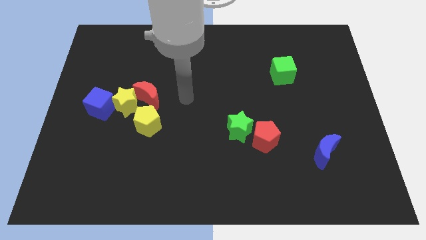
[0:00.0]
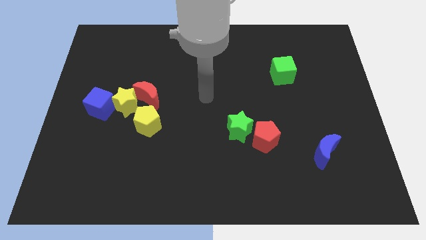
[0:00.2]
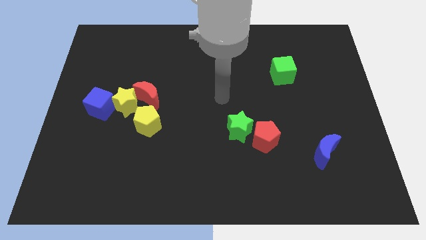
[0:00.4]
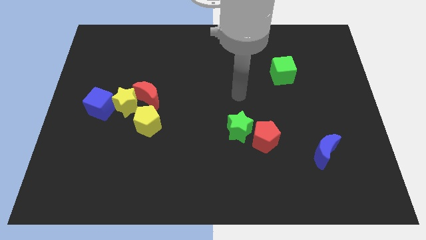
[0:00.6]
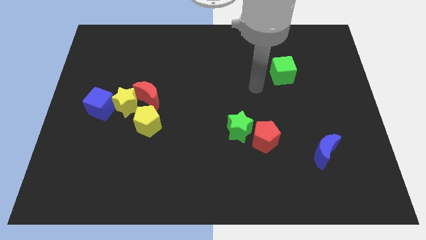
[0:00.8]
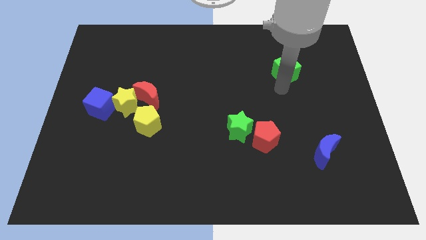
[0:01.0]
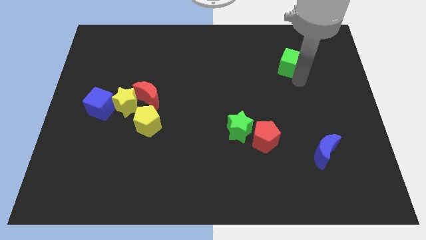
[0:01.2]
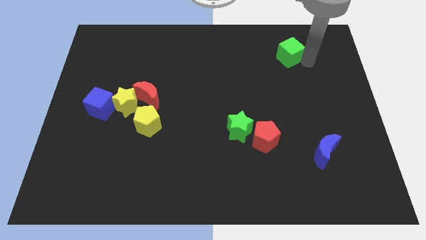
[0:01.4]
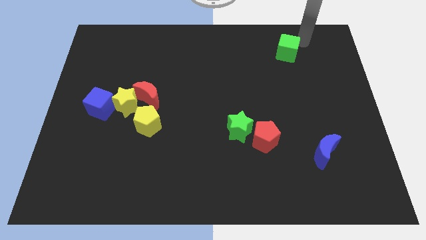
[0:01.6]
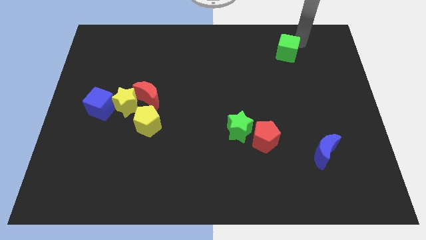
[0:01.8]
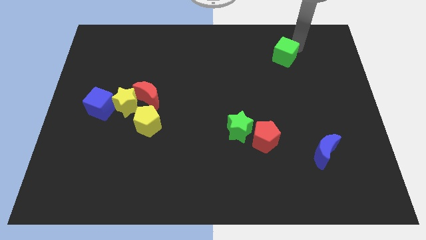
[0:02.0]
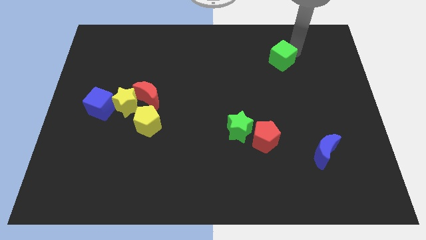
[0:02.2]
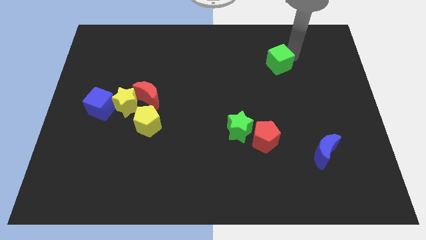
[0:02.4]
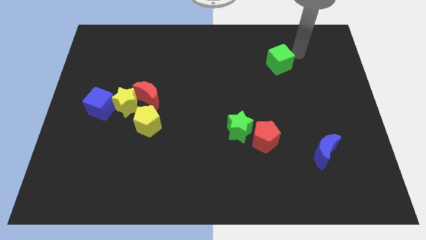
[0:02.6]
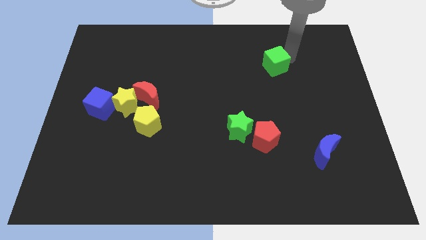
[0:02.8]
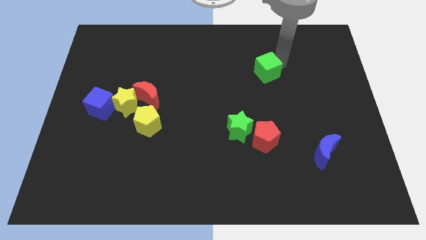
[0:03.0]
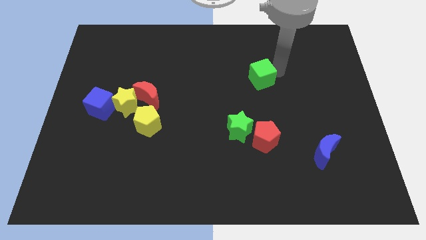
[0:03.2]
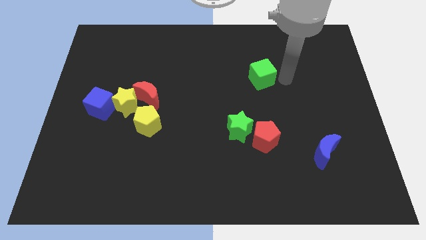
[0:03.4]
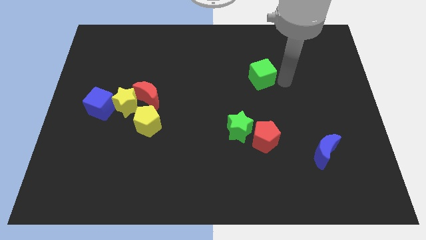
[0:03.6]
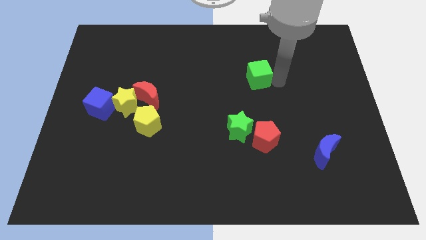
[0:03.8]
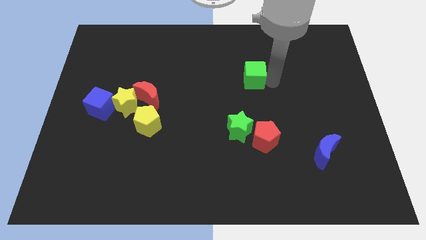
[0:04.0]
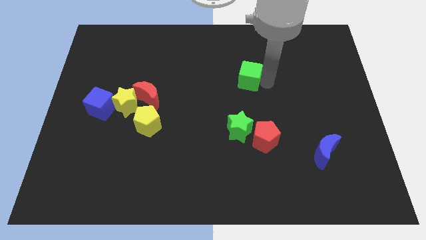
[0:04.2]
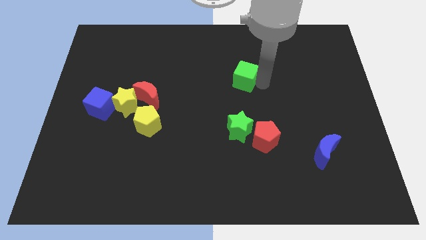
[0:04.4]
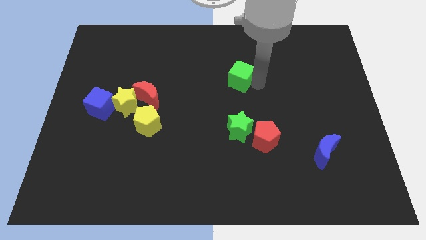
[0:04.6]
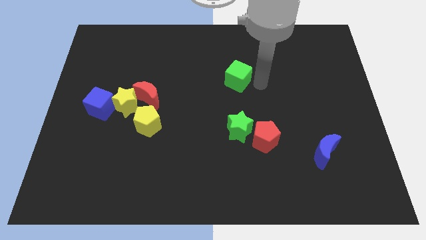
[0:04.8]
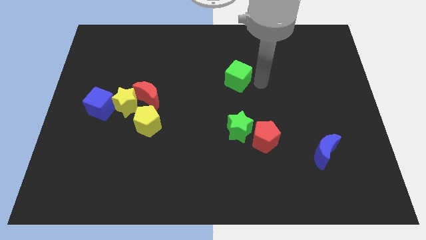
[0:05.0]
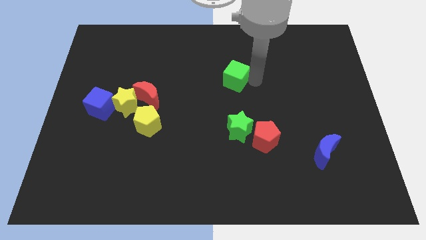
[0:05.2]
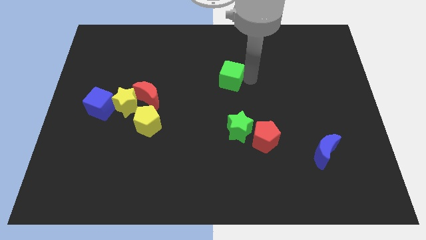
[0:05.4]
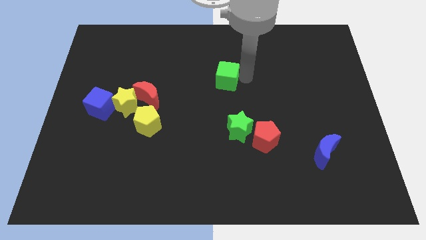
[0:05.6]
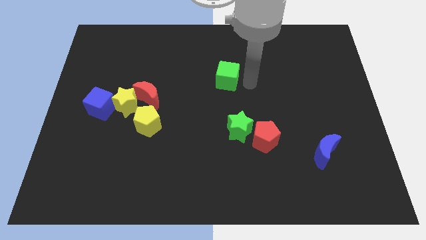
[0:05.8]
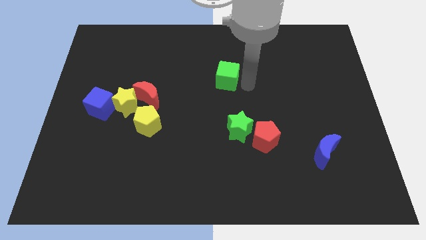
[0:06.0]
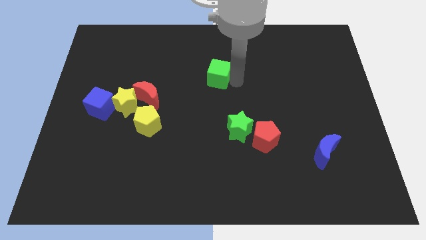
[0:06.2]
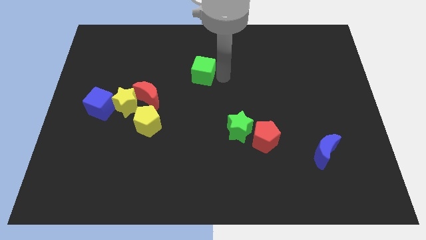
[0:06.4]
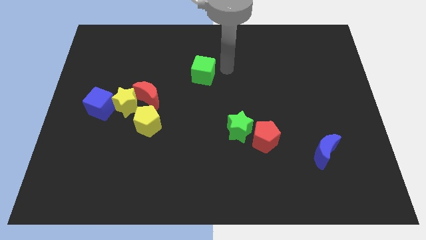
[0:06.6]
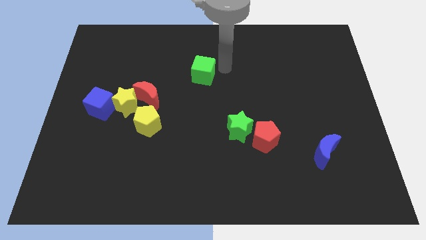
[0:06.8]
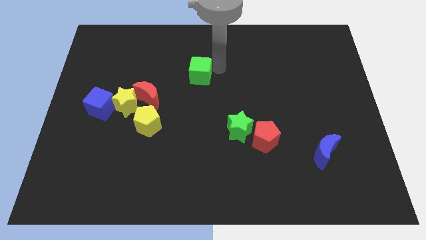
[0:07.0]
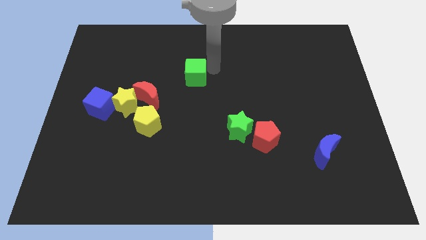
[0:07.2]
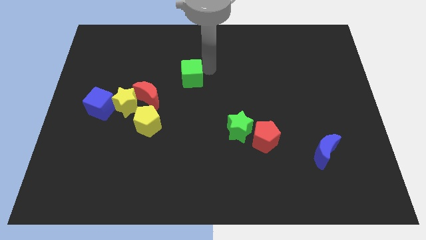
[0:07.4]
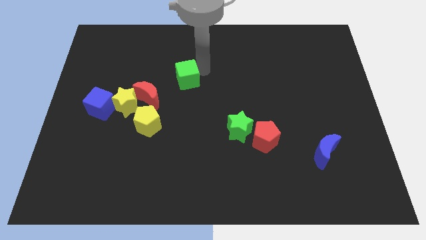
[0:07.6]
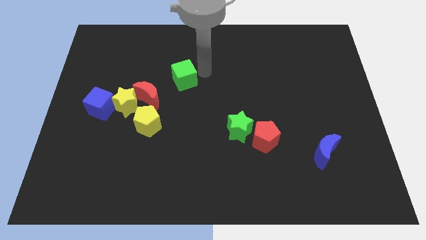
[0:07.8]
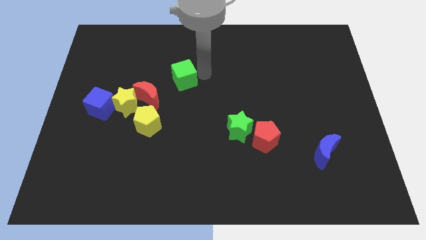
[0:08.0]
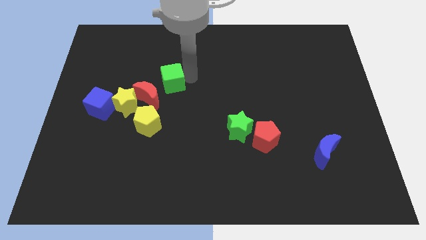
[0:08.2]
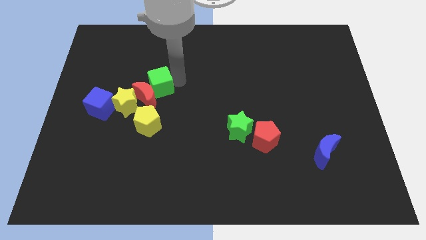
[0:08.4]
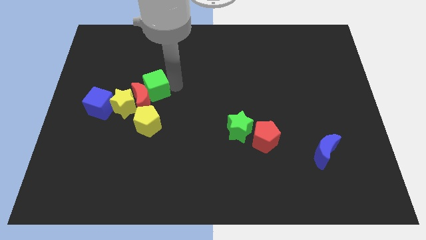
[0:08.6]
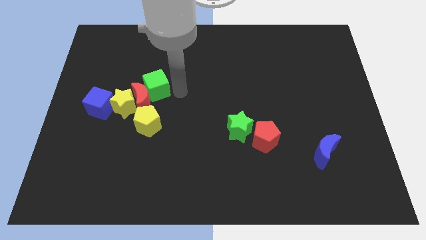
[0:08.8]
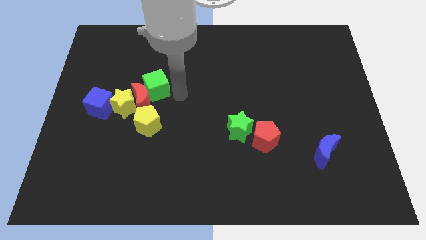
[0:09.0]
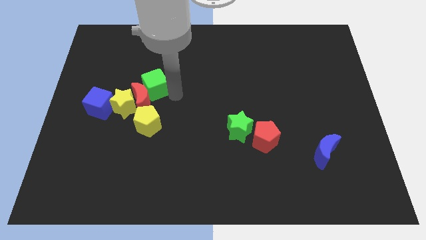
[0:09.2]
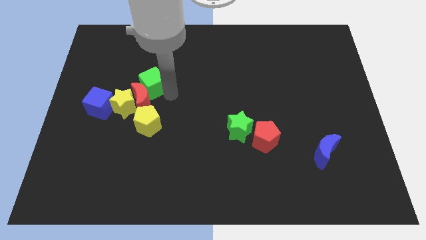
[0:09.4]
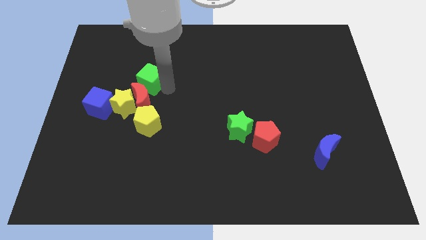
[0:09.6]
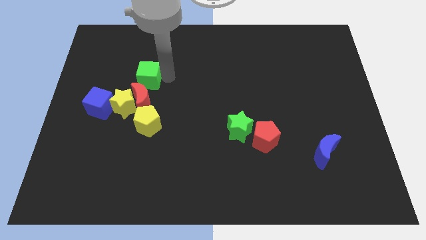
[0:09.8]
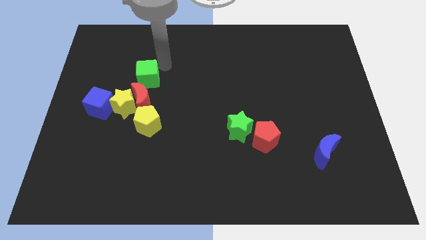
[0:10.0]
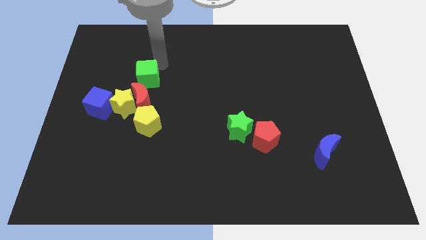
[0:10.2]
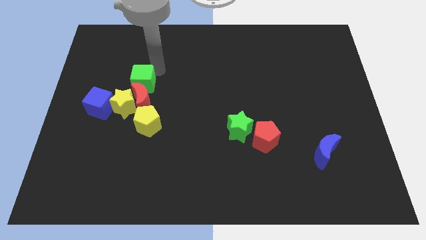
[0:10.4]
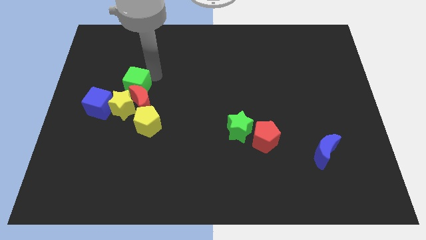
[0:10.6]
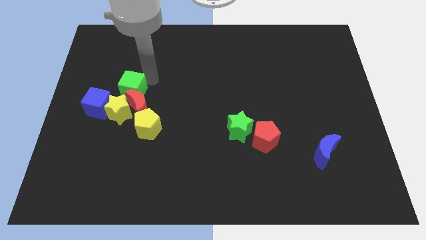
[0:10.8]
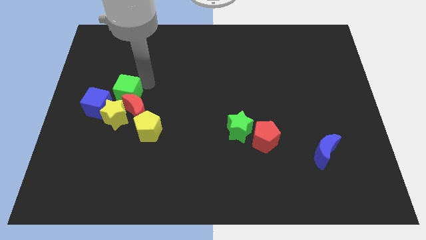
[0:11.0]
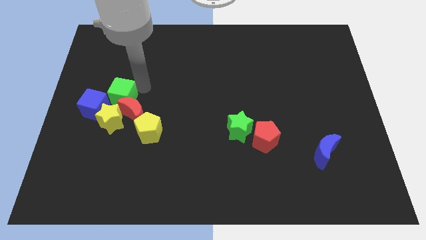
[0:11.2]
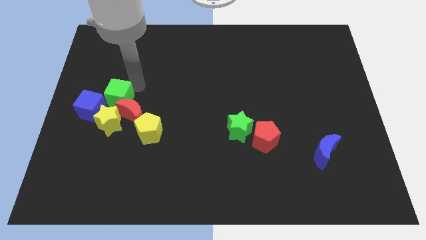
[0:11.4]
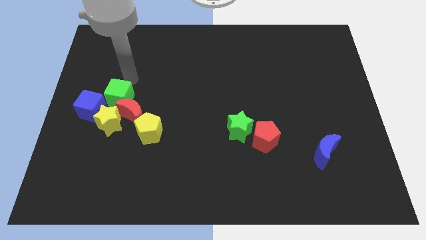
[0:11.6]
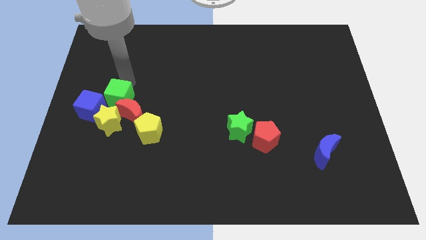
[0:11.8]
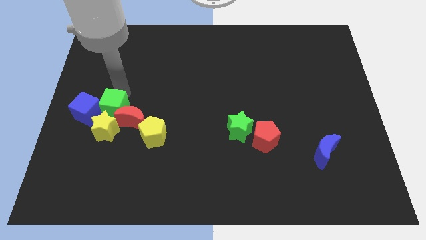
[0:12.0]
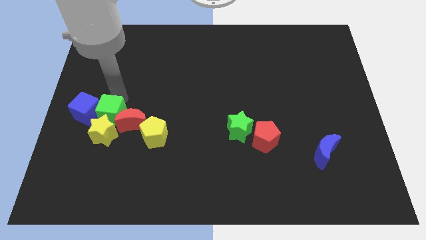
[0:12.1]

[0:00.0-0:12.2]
push the green cube next to the yellow star

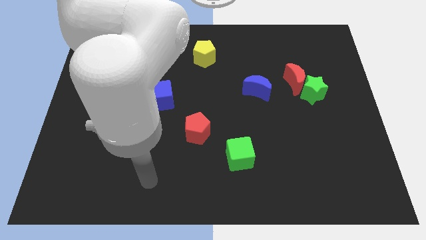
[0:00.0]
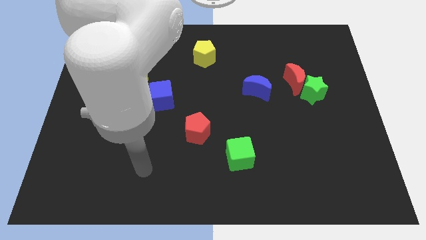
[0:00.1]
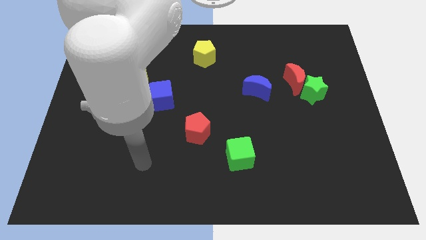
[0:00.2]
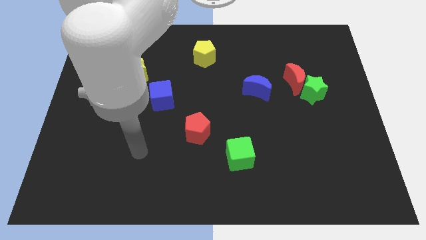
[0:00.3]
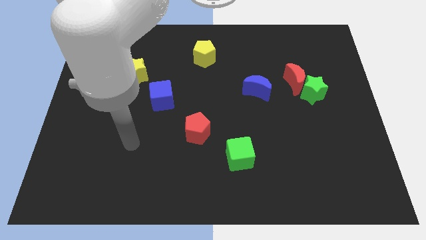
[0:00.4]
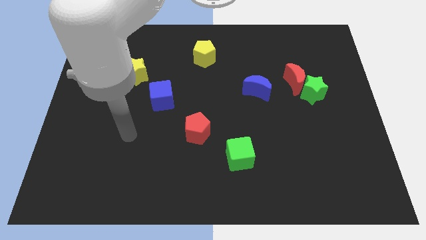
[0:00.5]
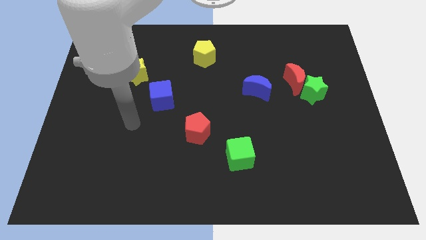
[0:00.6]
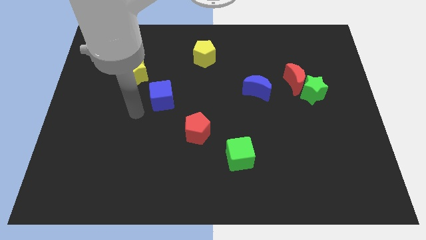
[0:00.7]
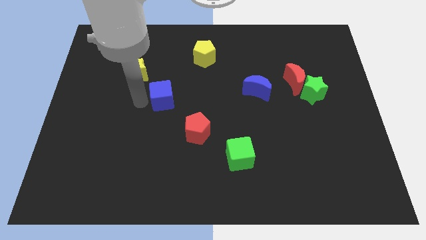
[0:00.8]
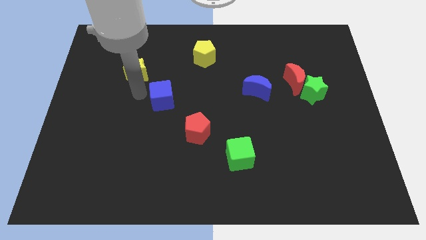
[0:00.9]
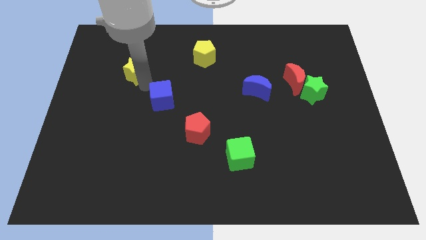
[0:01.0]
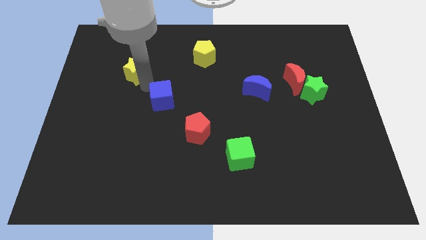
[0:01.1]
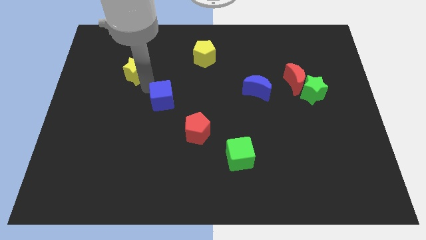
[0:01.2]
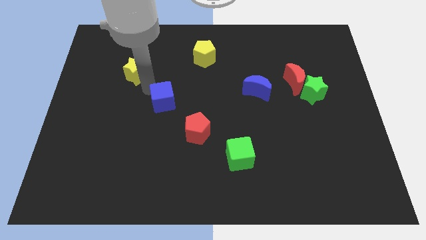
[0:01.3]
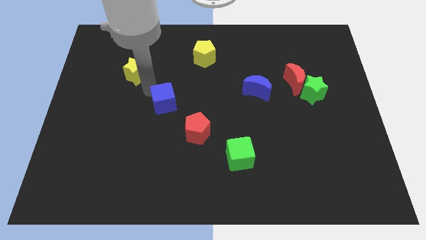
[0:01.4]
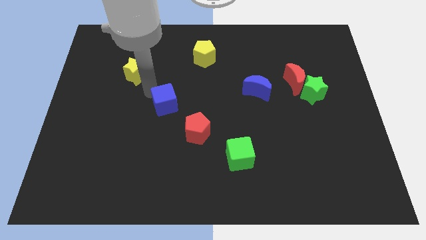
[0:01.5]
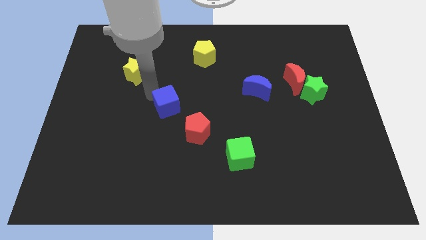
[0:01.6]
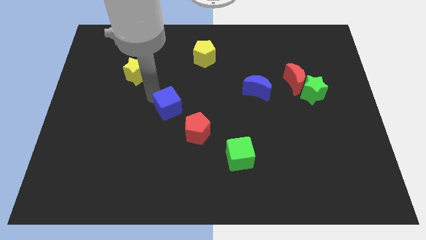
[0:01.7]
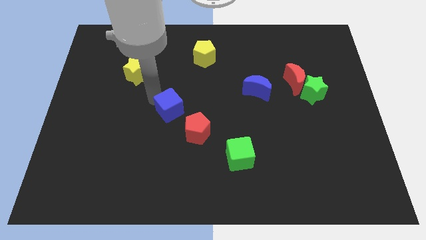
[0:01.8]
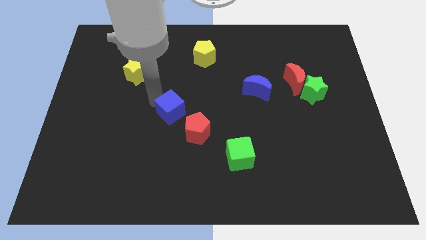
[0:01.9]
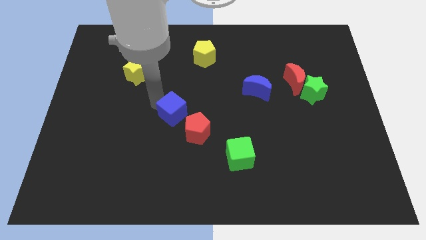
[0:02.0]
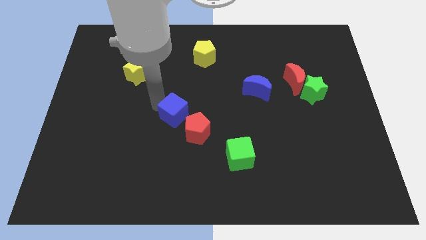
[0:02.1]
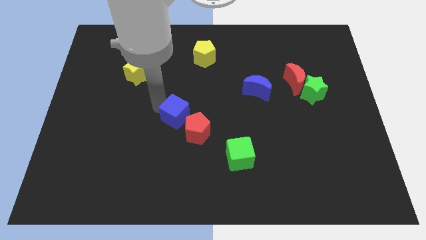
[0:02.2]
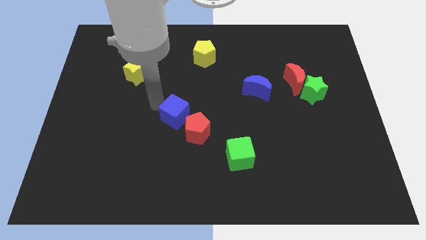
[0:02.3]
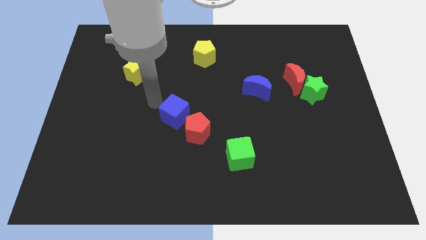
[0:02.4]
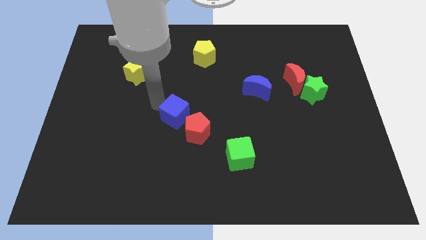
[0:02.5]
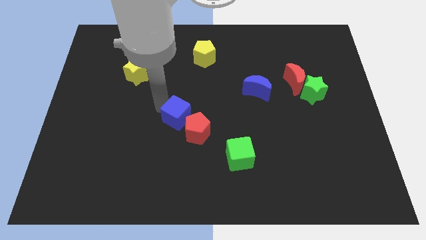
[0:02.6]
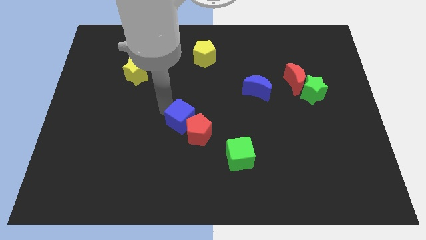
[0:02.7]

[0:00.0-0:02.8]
push the blue cube towards the red pentagon
